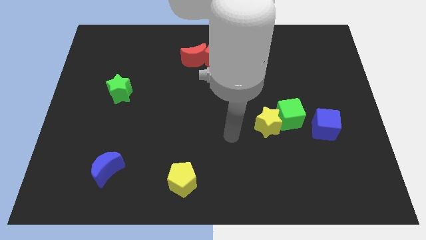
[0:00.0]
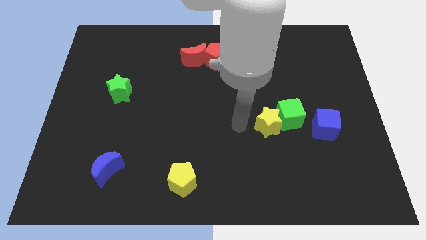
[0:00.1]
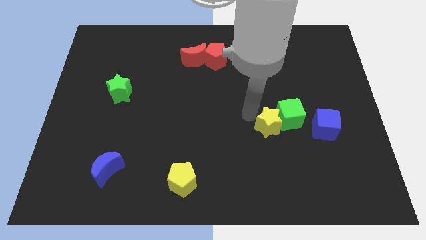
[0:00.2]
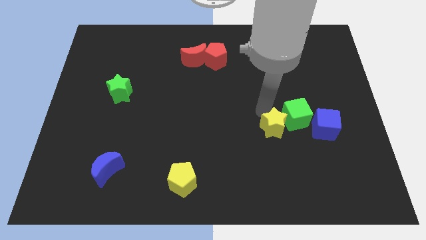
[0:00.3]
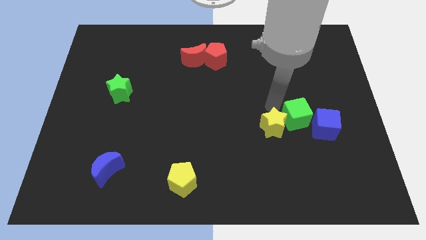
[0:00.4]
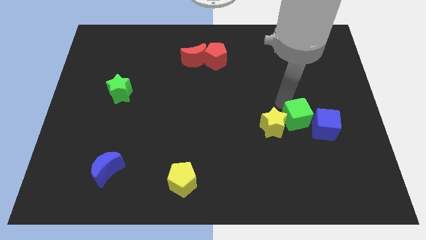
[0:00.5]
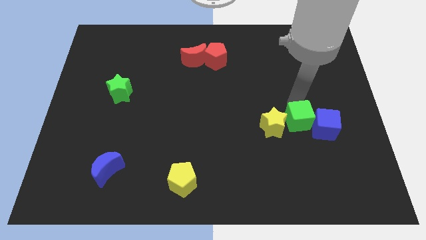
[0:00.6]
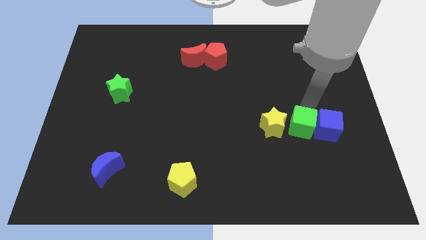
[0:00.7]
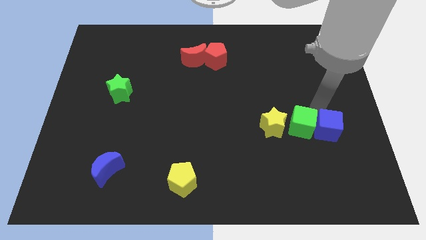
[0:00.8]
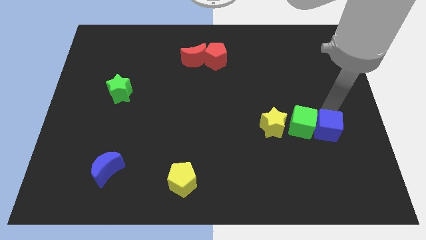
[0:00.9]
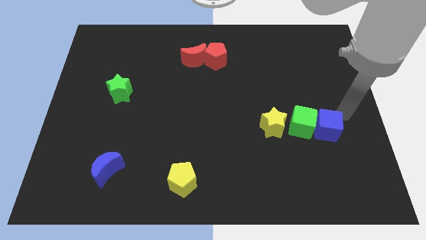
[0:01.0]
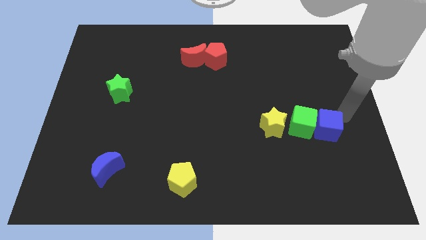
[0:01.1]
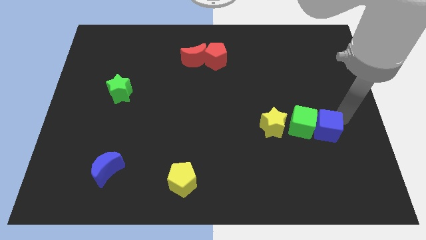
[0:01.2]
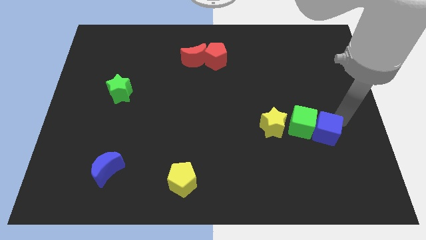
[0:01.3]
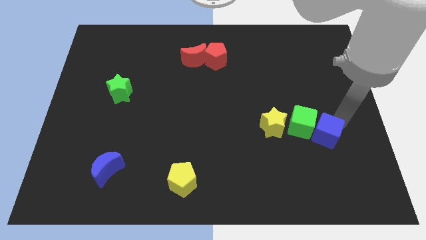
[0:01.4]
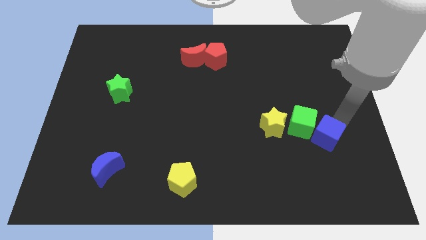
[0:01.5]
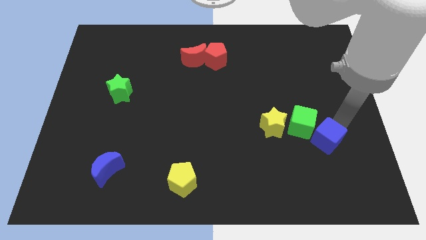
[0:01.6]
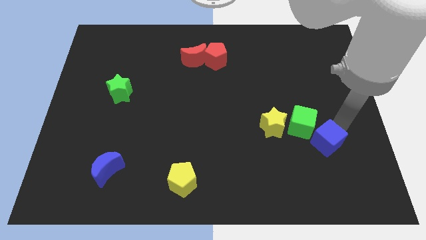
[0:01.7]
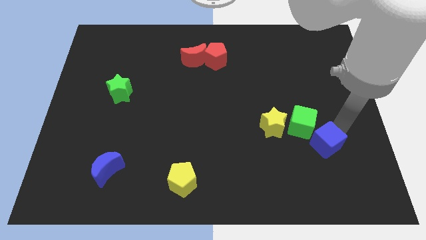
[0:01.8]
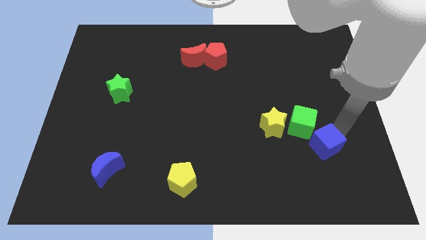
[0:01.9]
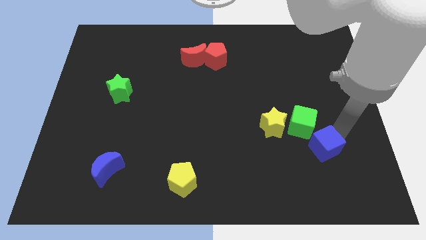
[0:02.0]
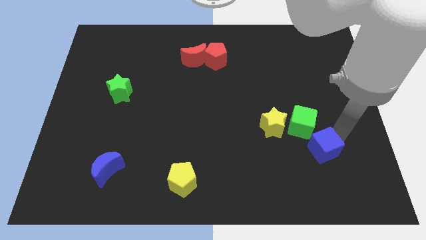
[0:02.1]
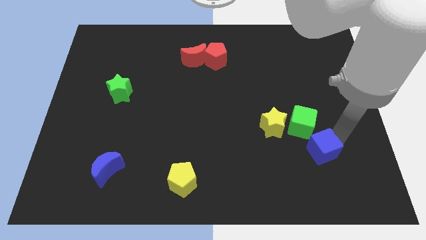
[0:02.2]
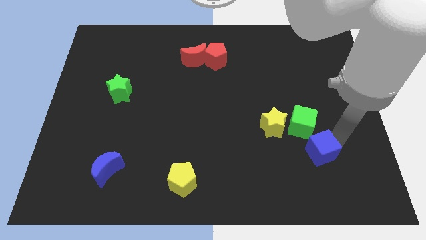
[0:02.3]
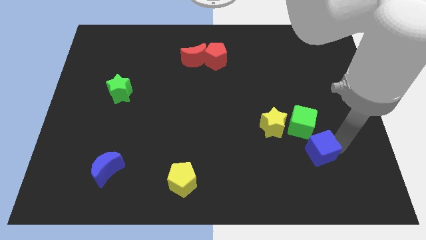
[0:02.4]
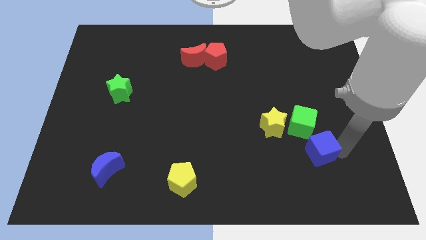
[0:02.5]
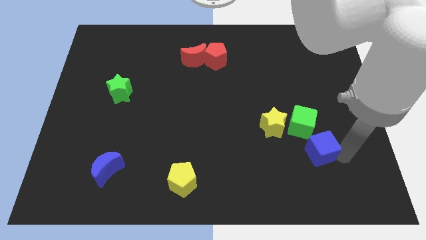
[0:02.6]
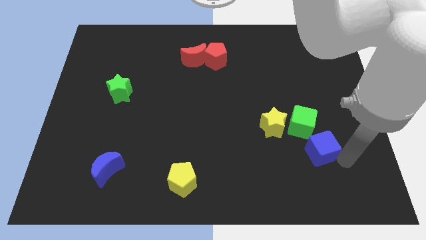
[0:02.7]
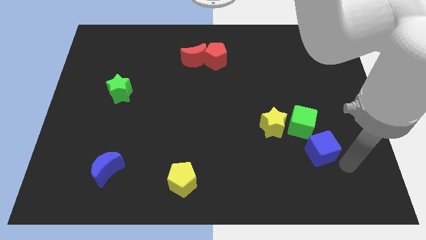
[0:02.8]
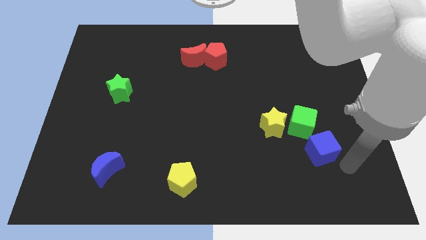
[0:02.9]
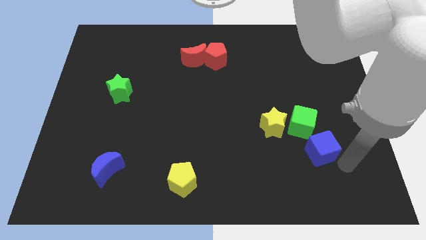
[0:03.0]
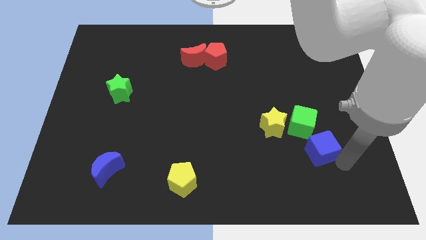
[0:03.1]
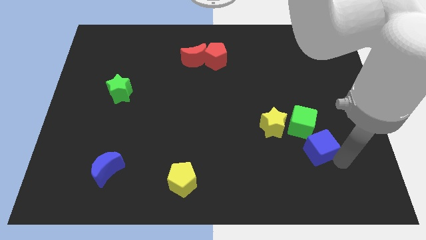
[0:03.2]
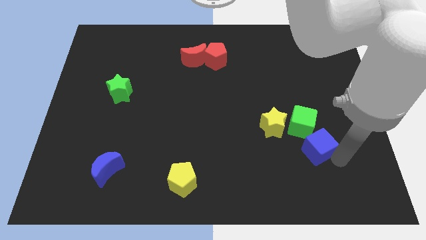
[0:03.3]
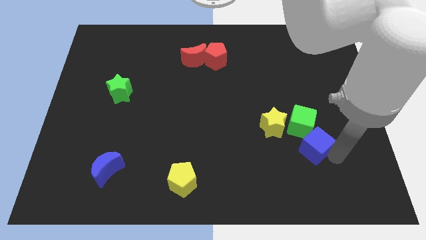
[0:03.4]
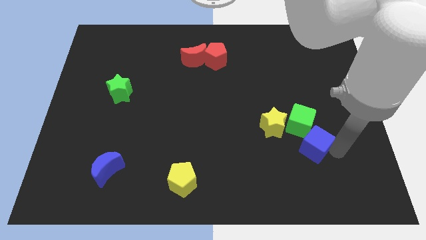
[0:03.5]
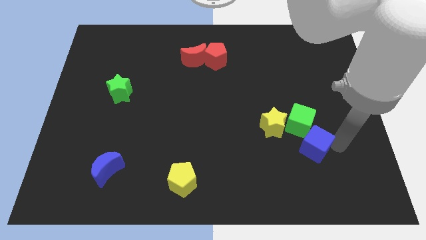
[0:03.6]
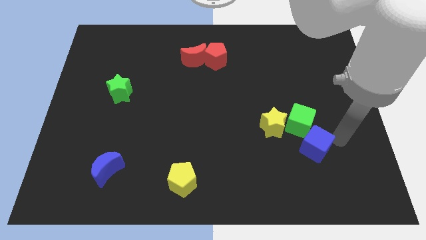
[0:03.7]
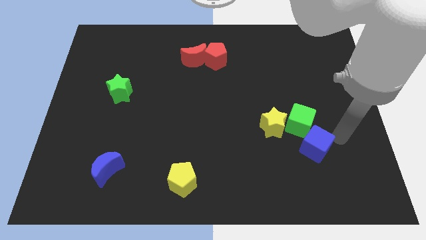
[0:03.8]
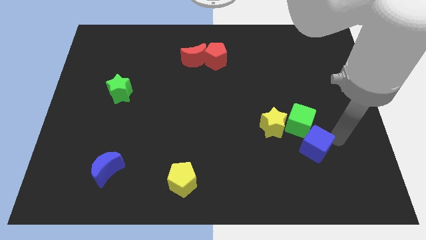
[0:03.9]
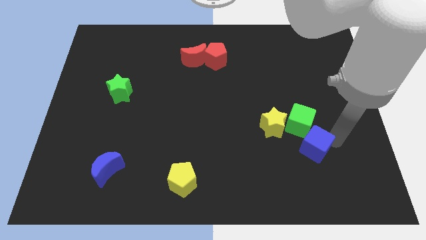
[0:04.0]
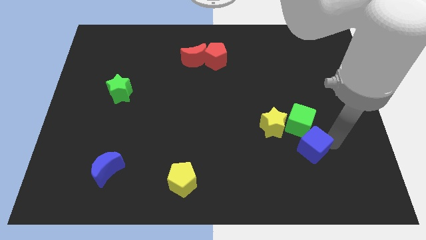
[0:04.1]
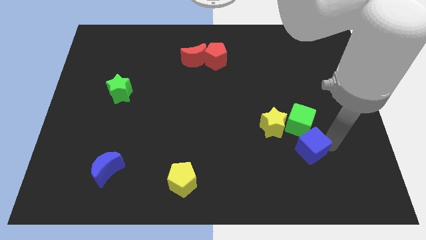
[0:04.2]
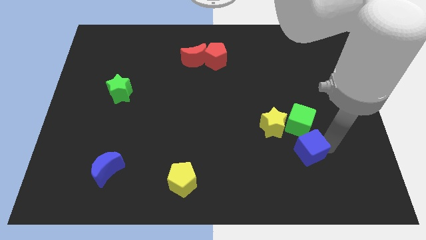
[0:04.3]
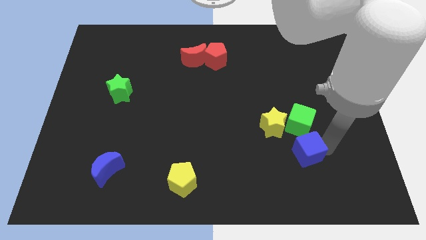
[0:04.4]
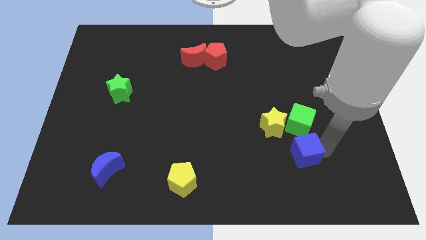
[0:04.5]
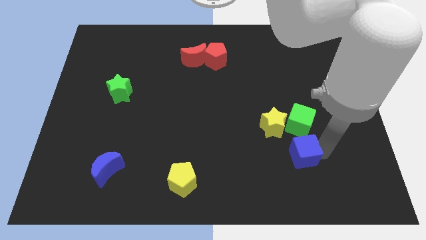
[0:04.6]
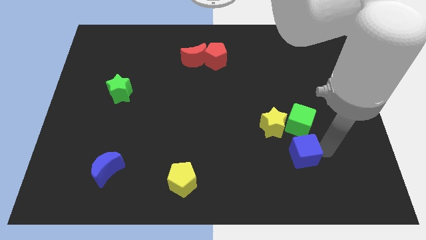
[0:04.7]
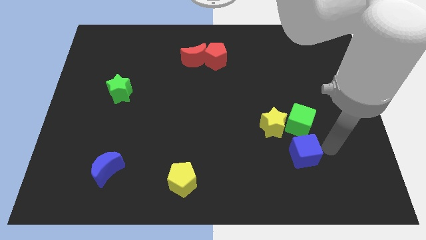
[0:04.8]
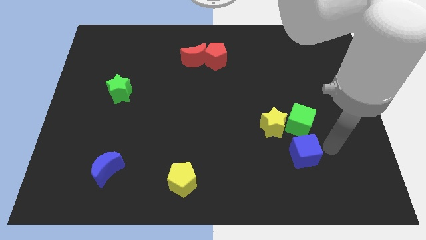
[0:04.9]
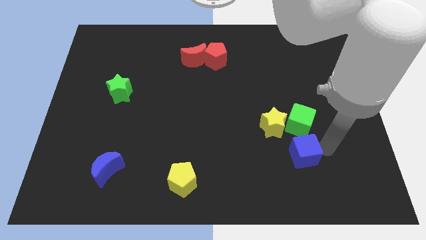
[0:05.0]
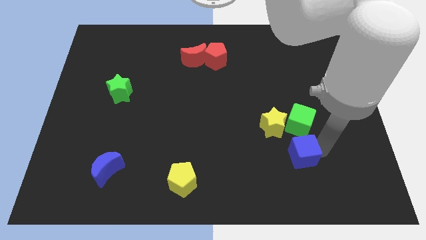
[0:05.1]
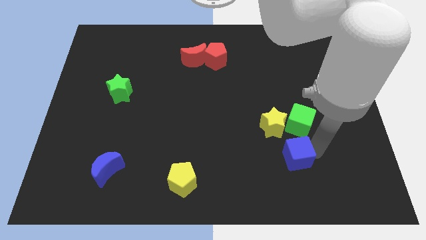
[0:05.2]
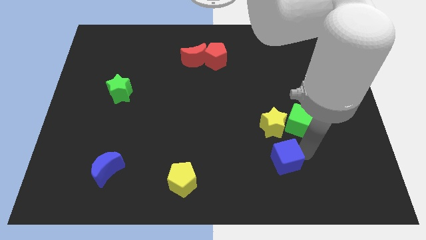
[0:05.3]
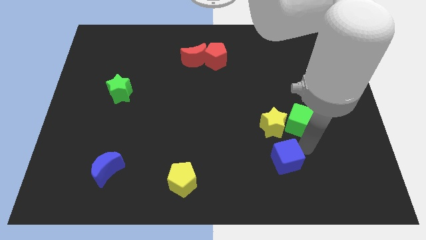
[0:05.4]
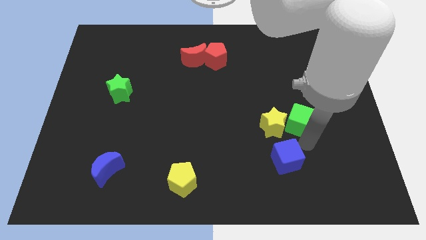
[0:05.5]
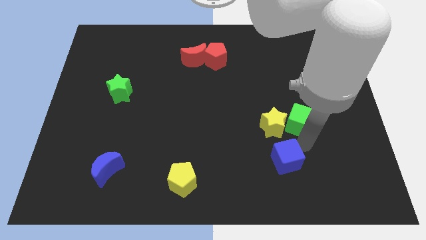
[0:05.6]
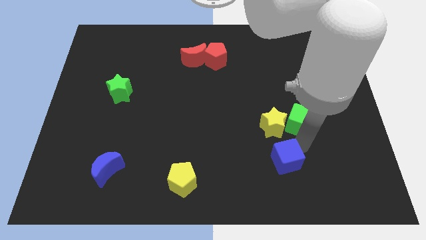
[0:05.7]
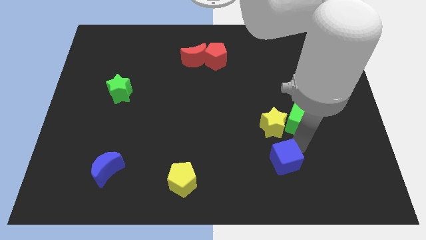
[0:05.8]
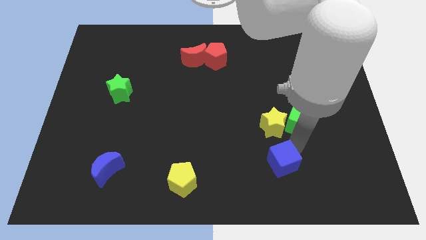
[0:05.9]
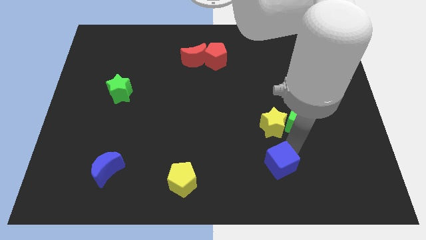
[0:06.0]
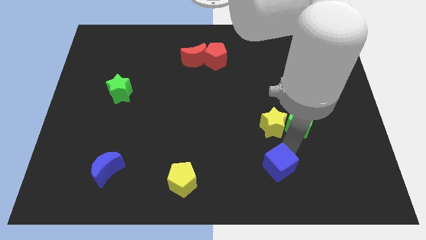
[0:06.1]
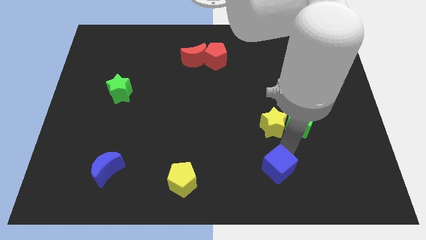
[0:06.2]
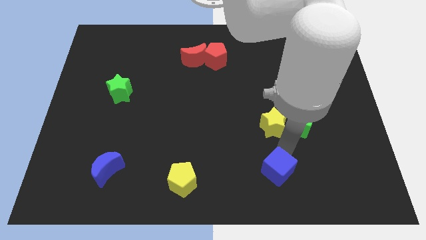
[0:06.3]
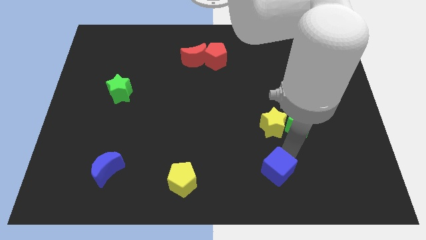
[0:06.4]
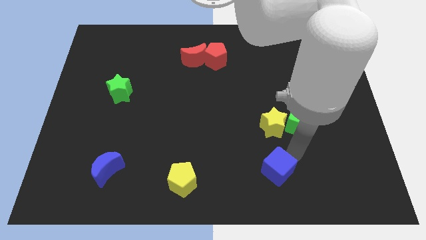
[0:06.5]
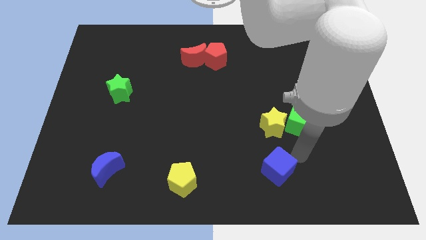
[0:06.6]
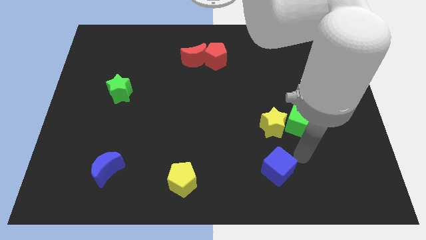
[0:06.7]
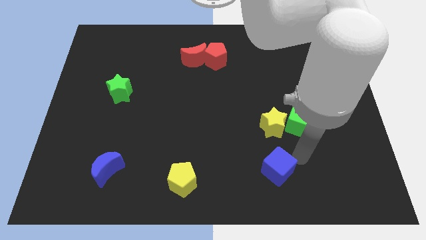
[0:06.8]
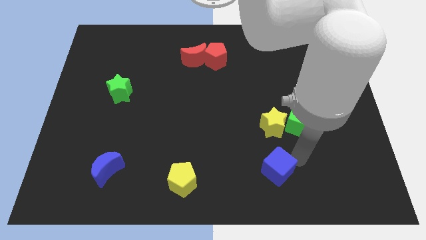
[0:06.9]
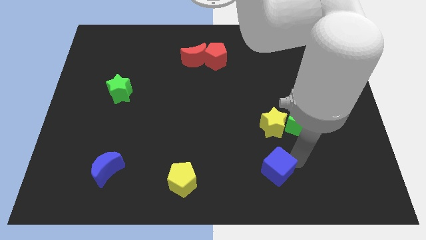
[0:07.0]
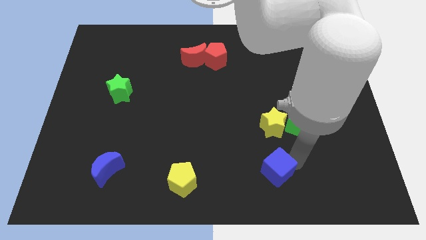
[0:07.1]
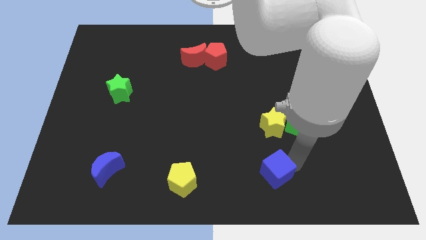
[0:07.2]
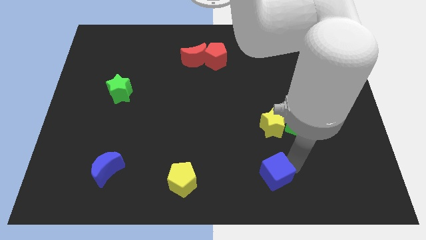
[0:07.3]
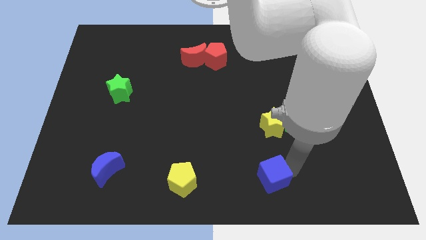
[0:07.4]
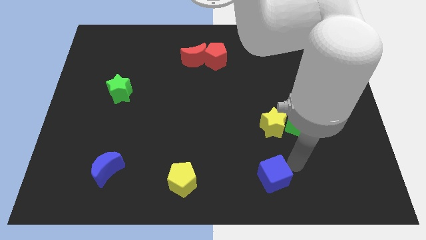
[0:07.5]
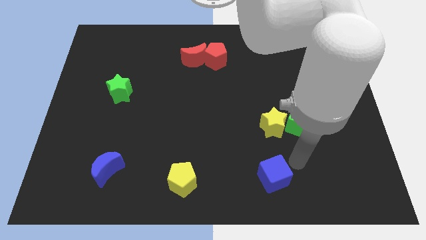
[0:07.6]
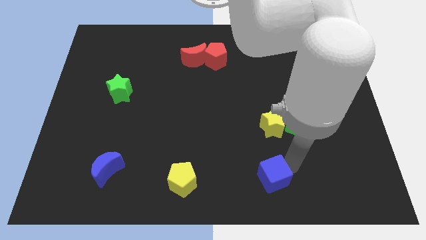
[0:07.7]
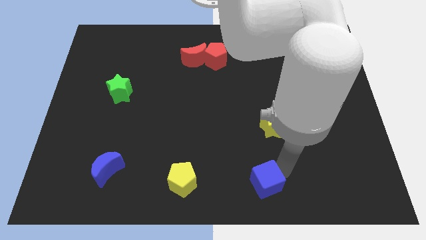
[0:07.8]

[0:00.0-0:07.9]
put the blue cube to the bottom side
